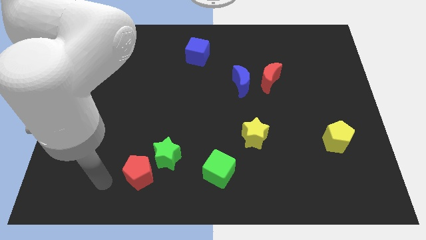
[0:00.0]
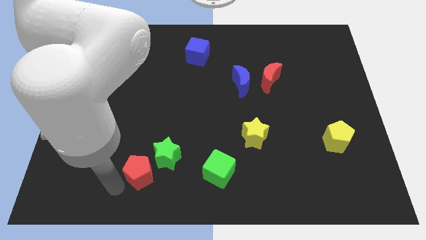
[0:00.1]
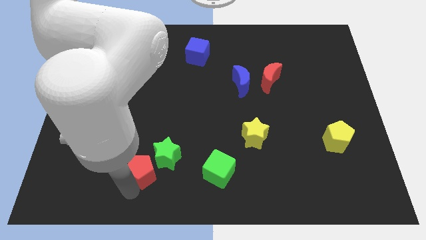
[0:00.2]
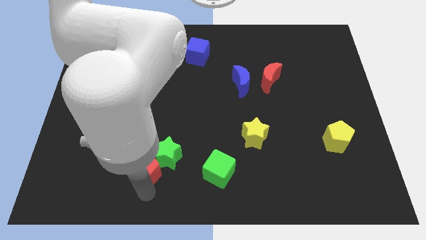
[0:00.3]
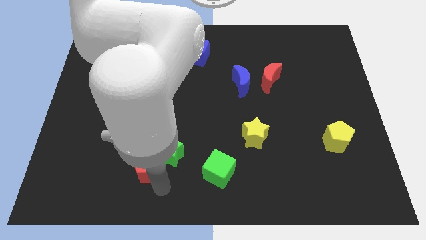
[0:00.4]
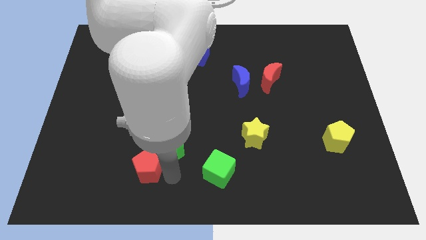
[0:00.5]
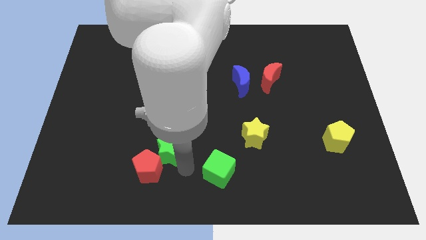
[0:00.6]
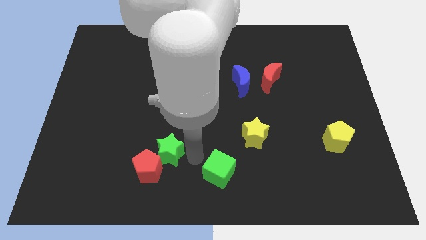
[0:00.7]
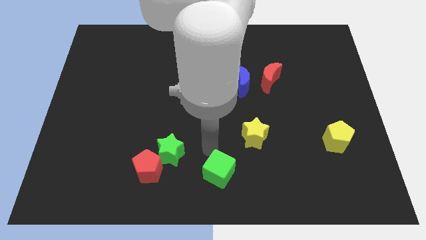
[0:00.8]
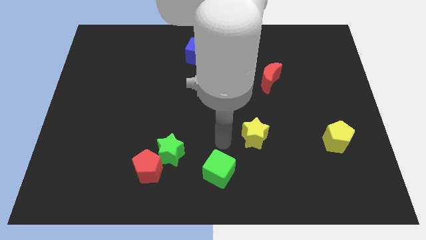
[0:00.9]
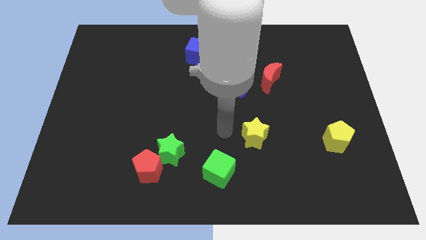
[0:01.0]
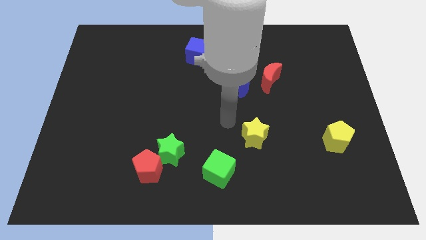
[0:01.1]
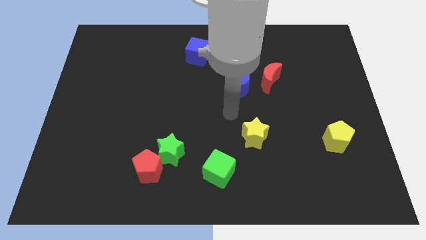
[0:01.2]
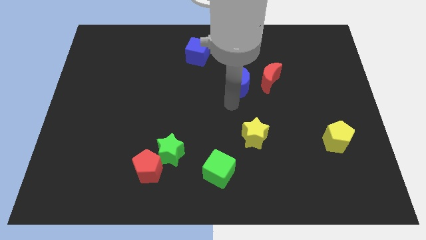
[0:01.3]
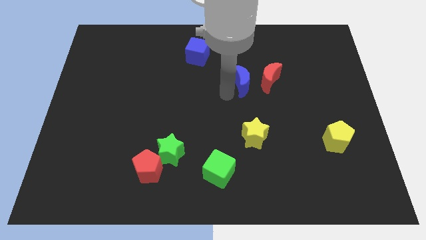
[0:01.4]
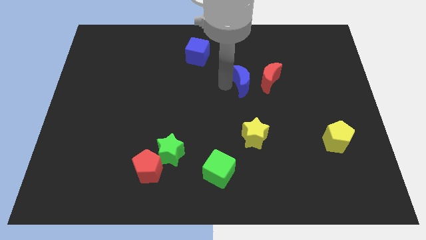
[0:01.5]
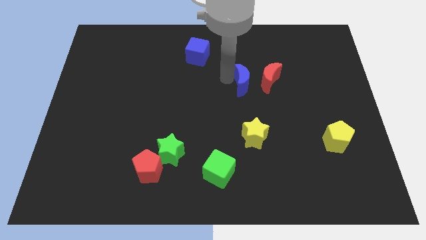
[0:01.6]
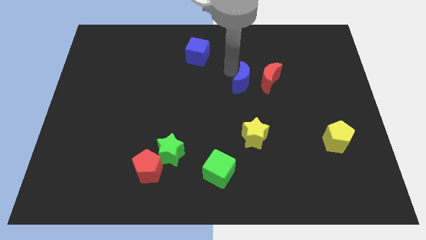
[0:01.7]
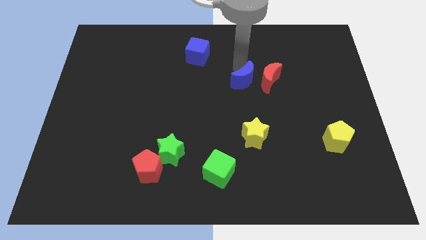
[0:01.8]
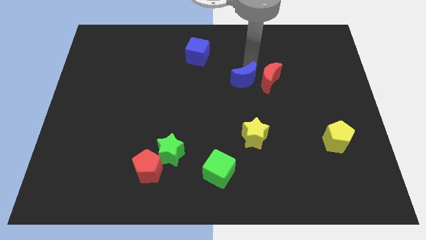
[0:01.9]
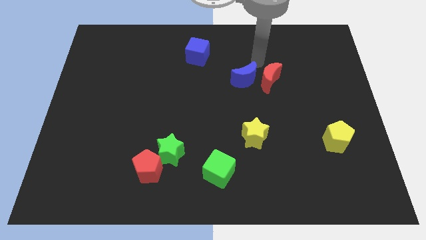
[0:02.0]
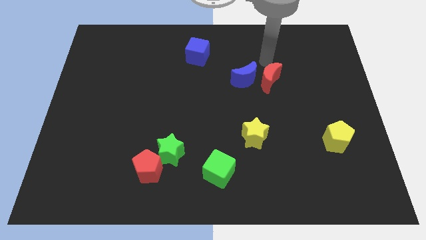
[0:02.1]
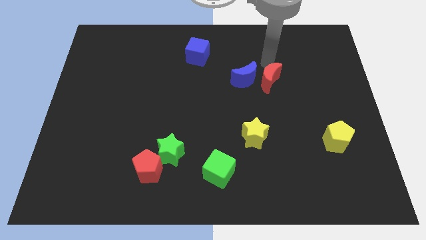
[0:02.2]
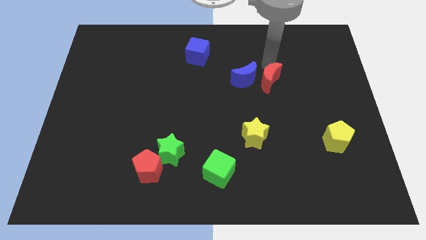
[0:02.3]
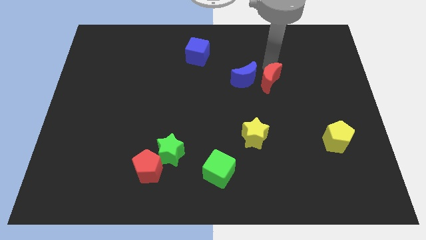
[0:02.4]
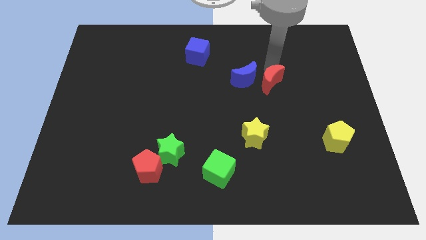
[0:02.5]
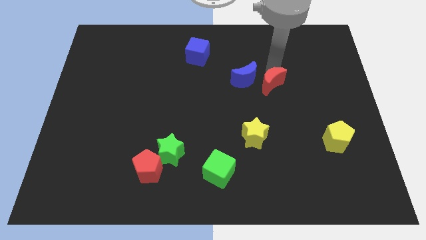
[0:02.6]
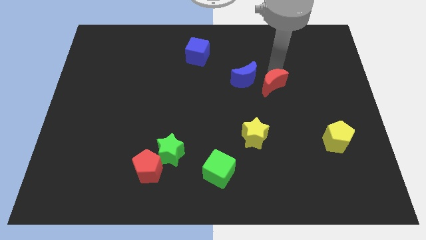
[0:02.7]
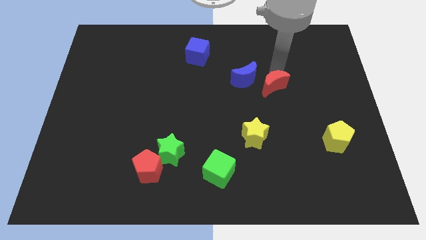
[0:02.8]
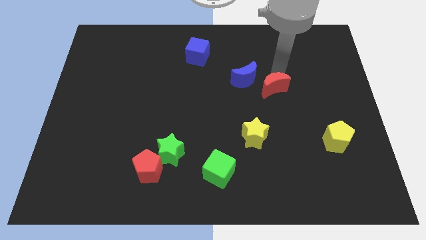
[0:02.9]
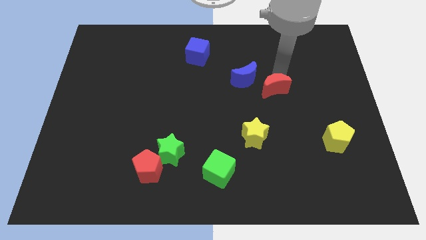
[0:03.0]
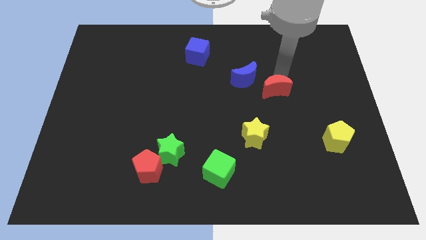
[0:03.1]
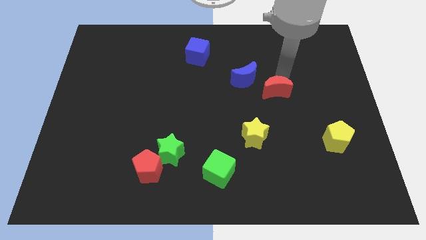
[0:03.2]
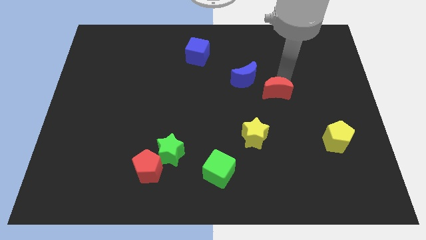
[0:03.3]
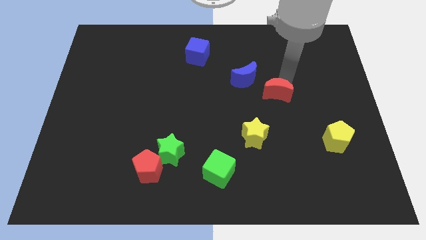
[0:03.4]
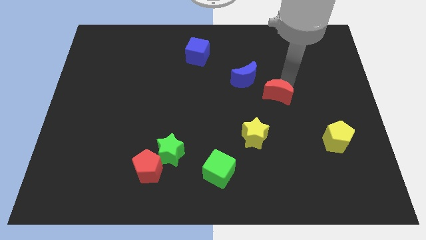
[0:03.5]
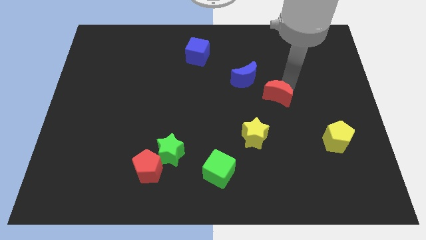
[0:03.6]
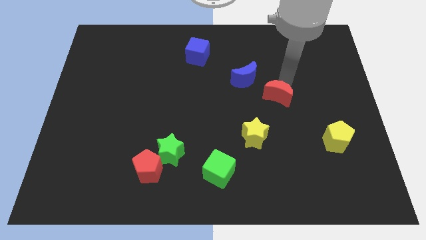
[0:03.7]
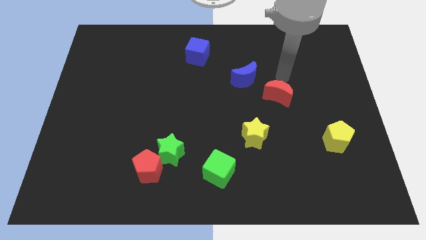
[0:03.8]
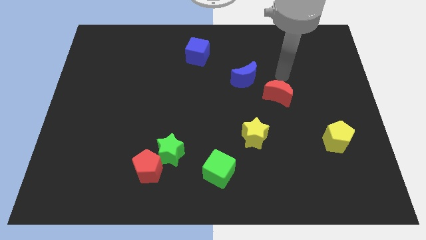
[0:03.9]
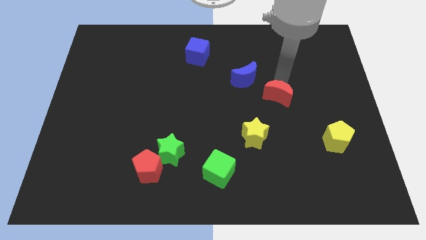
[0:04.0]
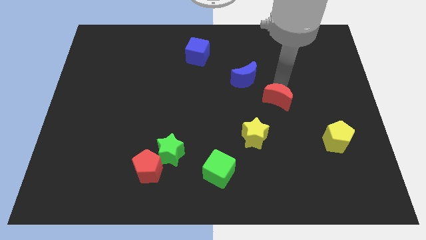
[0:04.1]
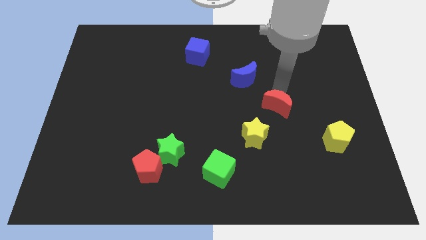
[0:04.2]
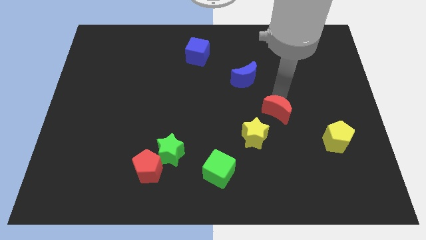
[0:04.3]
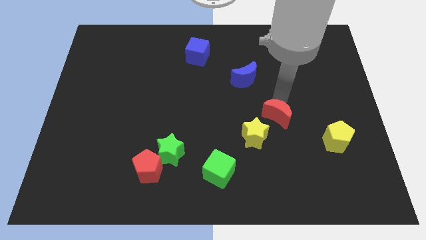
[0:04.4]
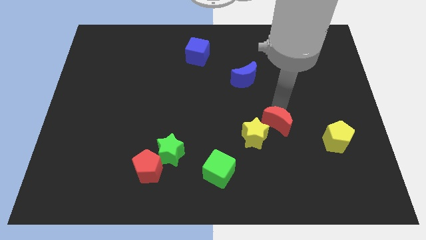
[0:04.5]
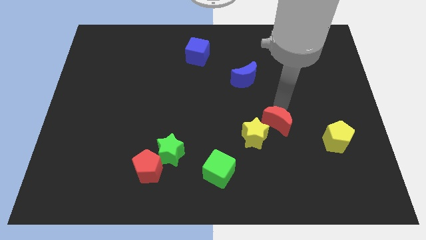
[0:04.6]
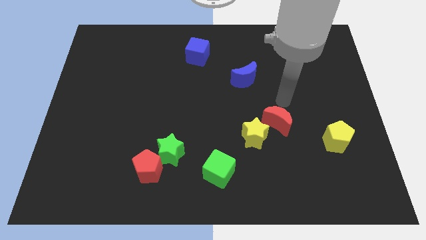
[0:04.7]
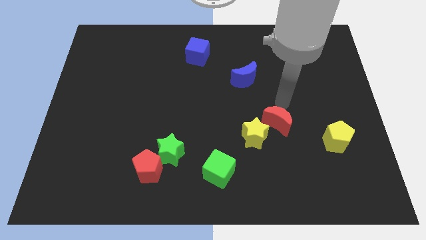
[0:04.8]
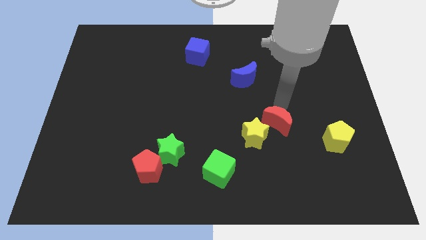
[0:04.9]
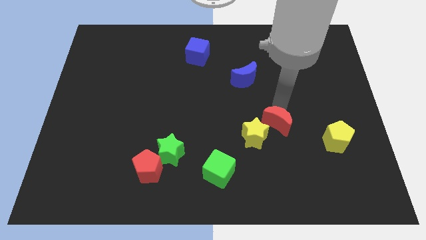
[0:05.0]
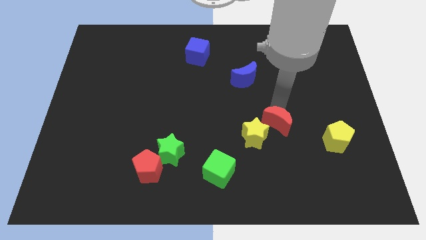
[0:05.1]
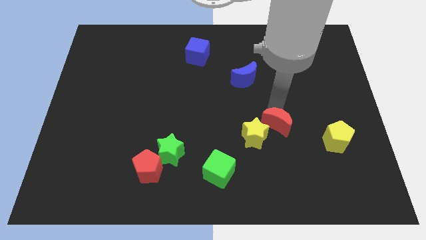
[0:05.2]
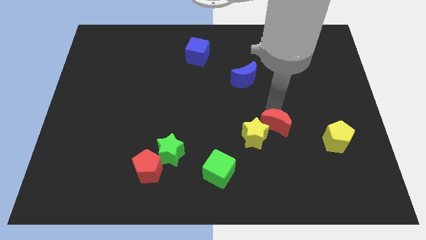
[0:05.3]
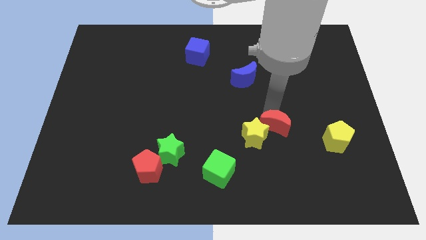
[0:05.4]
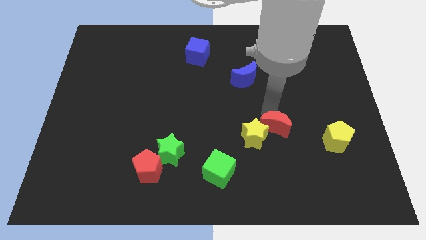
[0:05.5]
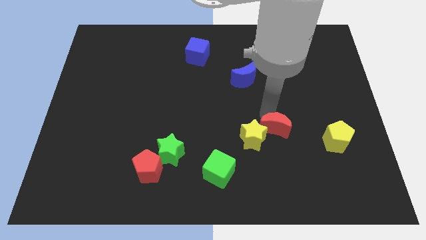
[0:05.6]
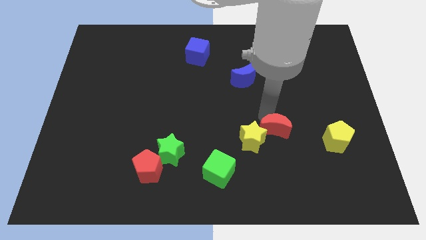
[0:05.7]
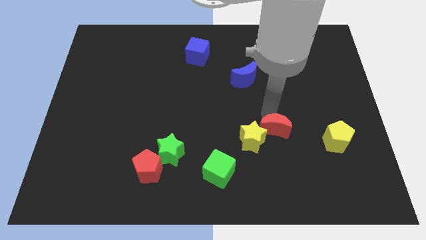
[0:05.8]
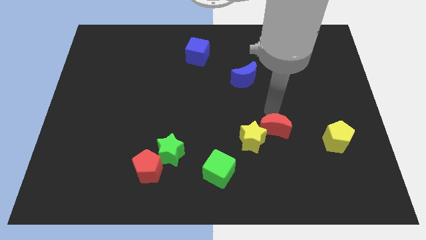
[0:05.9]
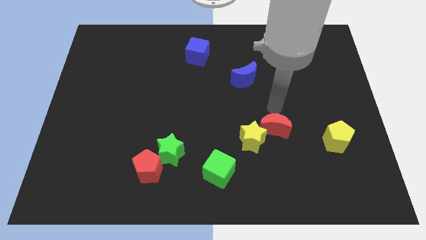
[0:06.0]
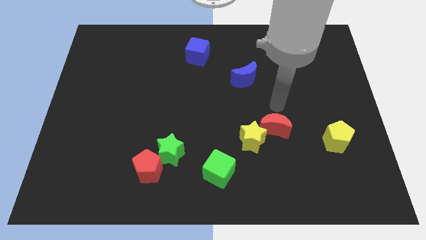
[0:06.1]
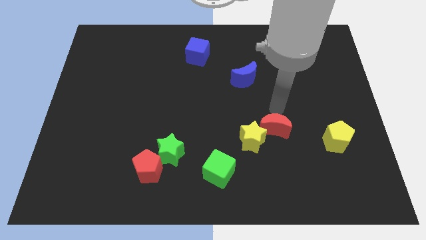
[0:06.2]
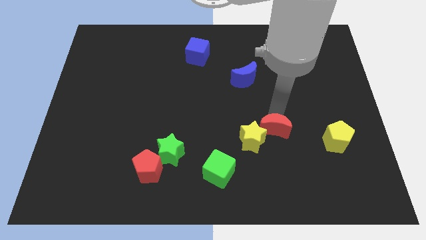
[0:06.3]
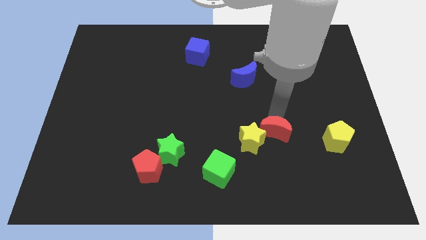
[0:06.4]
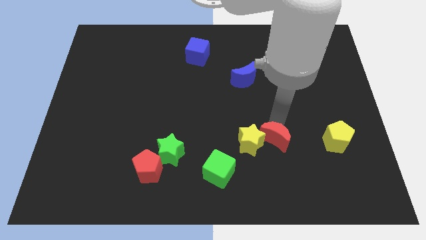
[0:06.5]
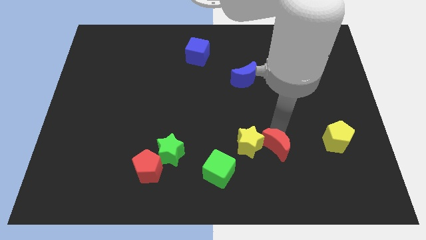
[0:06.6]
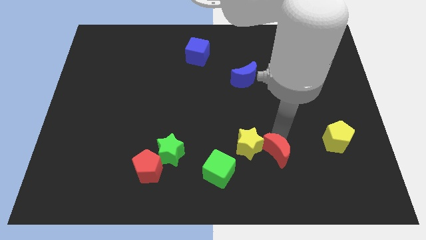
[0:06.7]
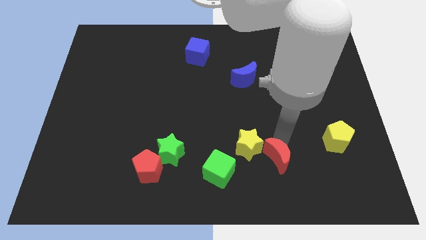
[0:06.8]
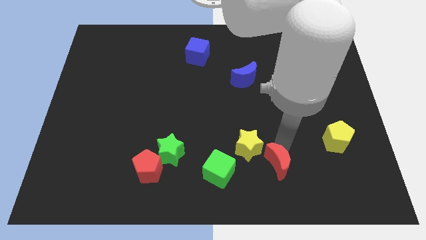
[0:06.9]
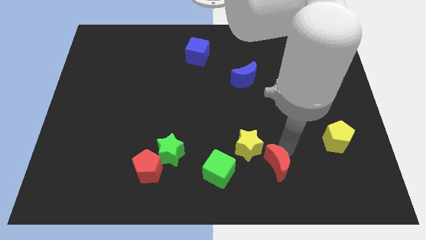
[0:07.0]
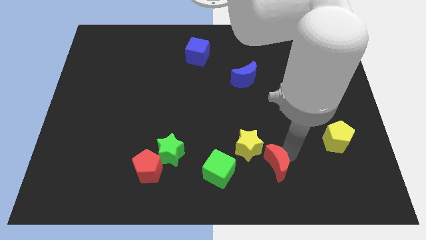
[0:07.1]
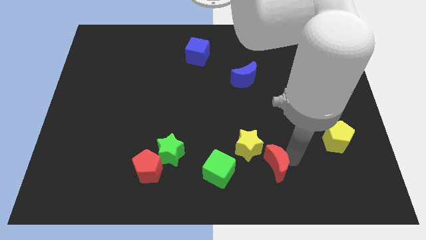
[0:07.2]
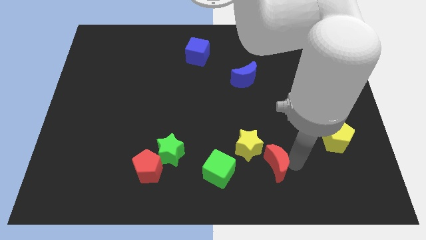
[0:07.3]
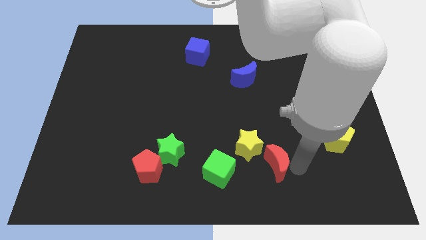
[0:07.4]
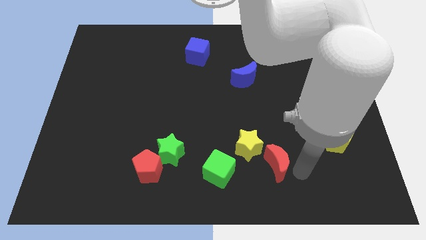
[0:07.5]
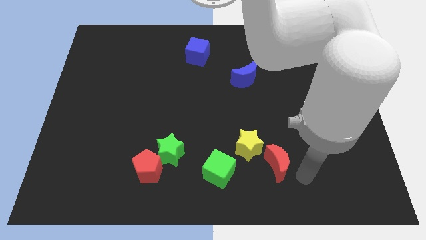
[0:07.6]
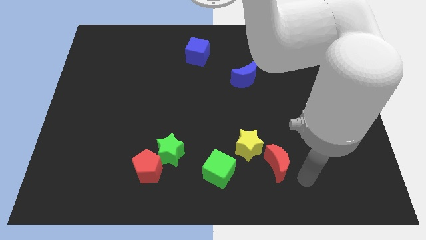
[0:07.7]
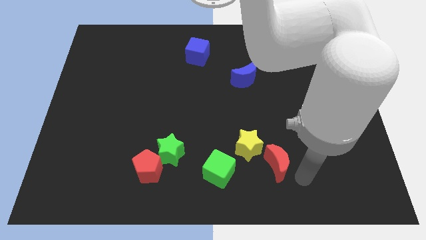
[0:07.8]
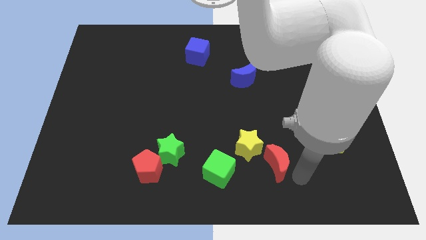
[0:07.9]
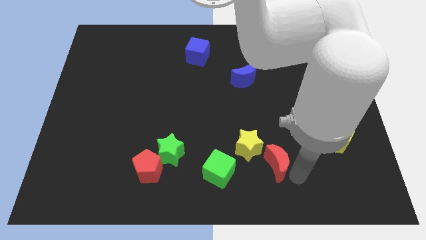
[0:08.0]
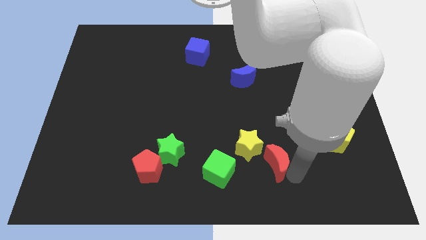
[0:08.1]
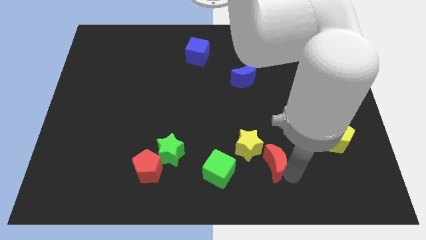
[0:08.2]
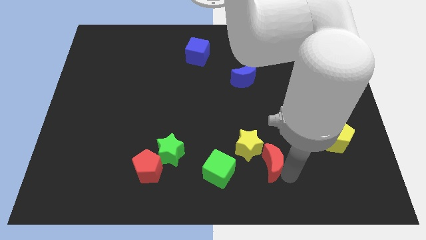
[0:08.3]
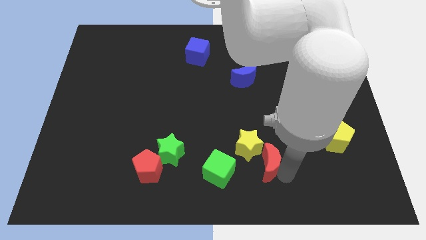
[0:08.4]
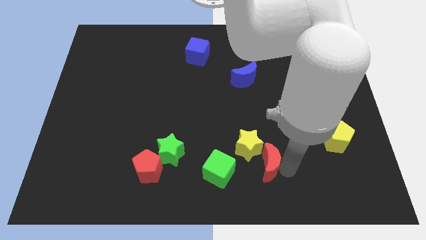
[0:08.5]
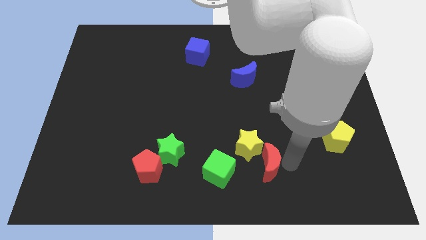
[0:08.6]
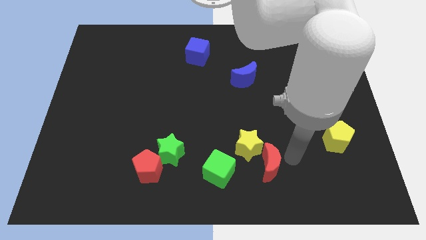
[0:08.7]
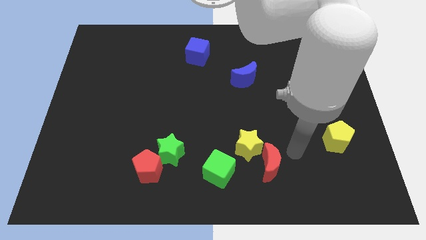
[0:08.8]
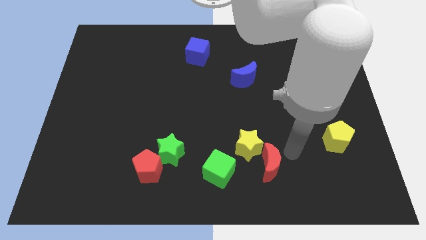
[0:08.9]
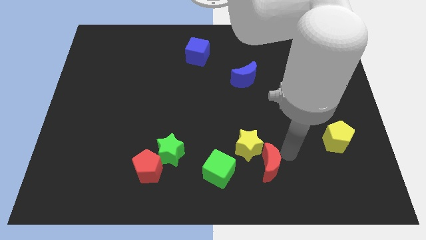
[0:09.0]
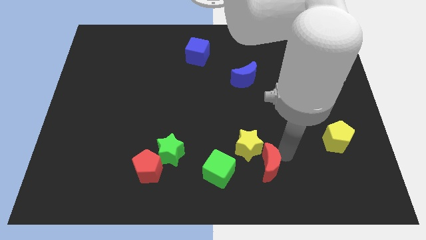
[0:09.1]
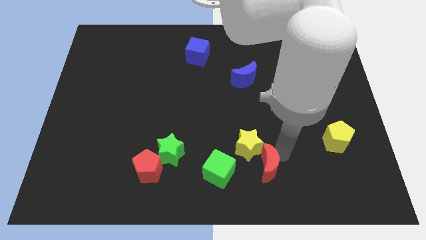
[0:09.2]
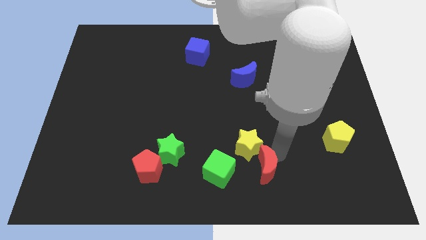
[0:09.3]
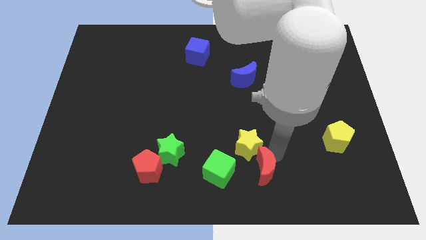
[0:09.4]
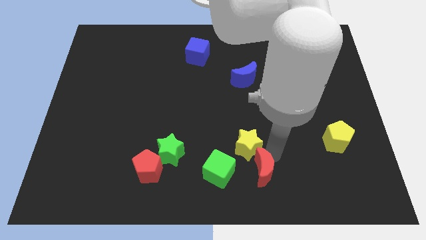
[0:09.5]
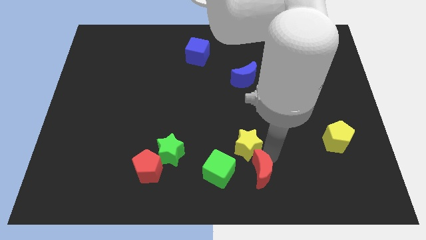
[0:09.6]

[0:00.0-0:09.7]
put the red moon to the bottom side
